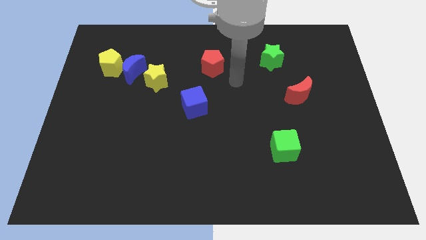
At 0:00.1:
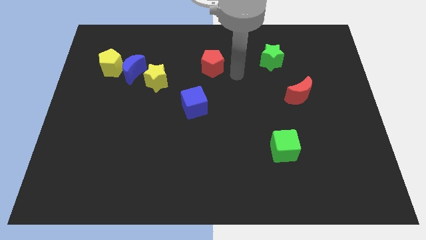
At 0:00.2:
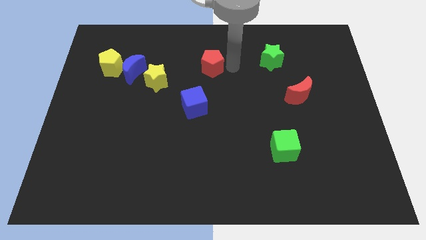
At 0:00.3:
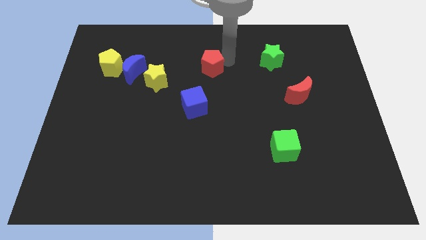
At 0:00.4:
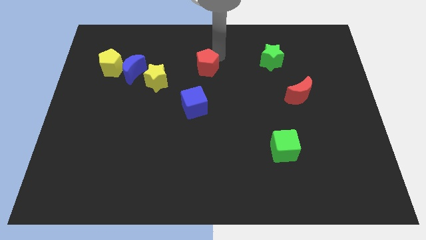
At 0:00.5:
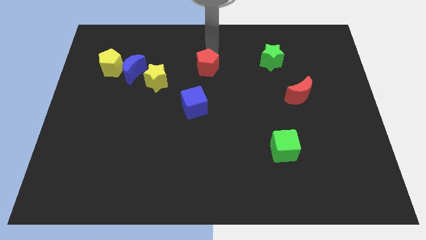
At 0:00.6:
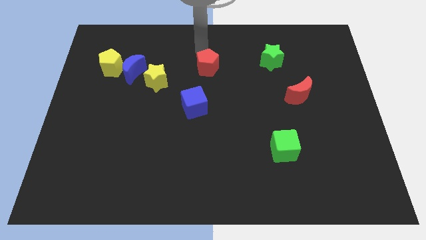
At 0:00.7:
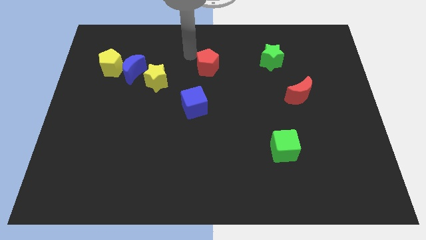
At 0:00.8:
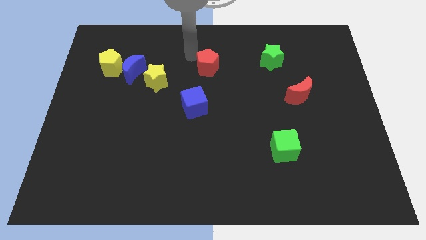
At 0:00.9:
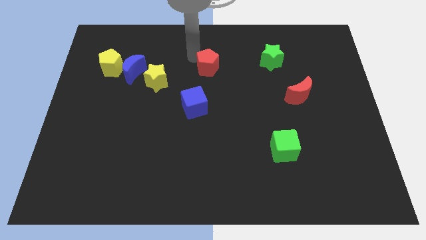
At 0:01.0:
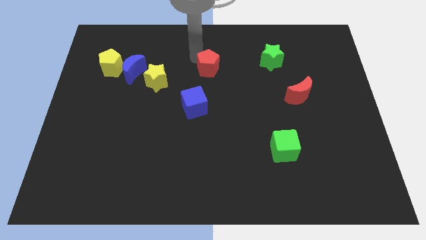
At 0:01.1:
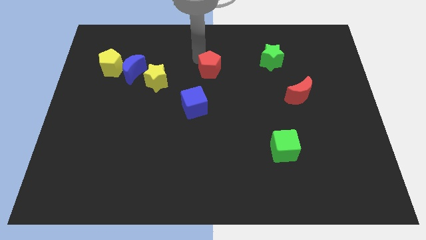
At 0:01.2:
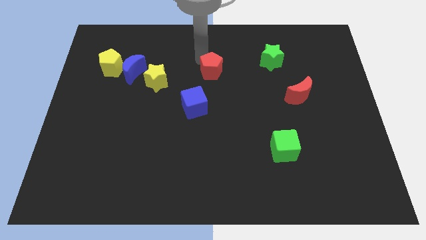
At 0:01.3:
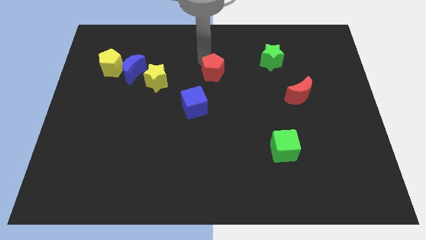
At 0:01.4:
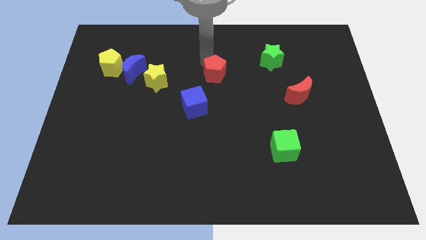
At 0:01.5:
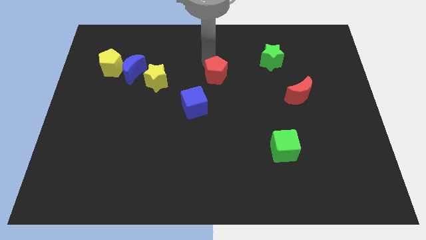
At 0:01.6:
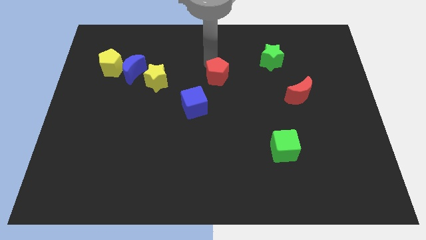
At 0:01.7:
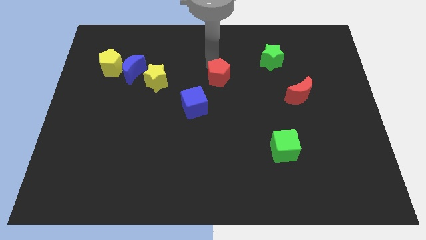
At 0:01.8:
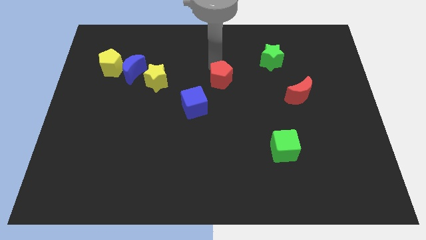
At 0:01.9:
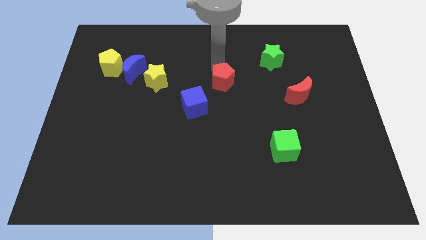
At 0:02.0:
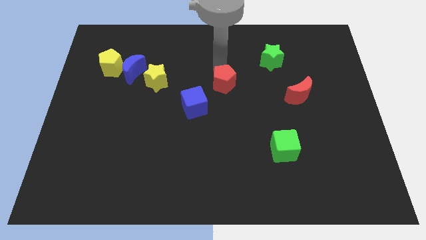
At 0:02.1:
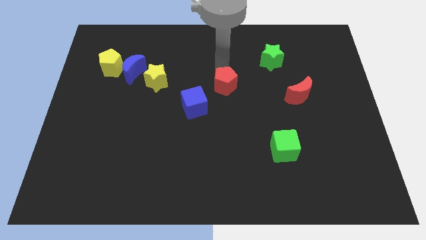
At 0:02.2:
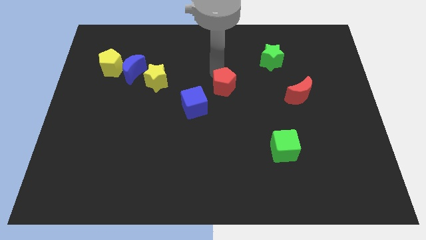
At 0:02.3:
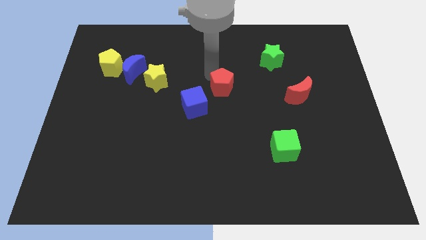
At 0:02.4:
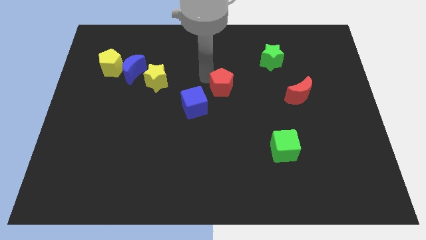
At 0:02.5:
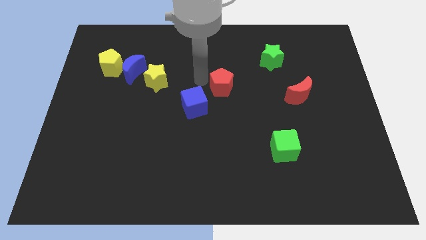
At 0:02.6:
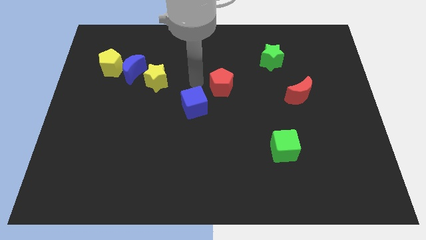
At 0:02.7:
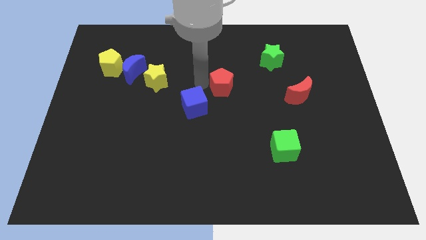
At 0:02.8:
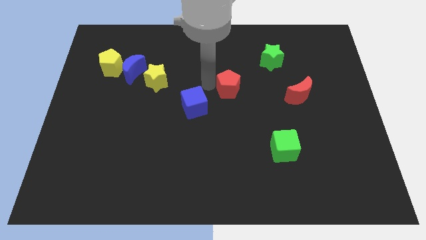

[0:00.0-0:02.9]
move the red pentagon diagonally down and to the right slightly

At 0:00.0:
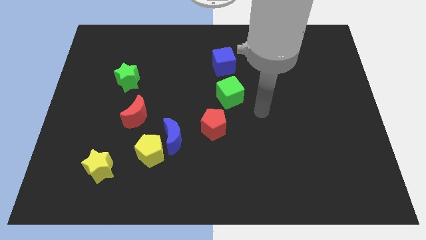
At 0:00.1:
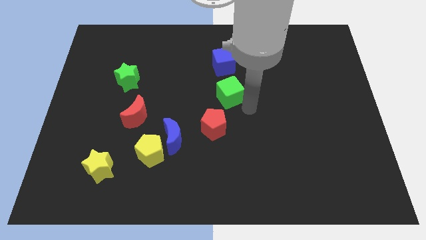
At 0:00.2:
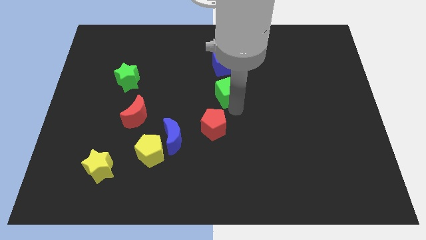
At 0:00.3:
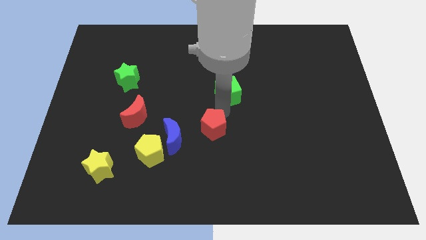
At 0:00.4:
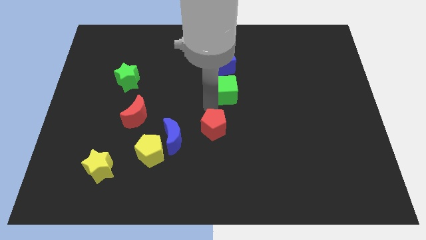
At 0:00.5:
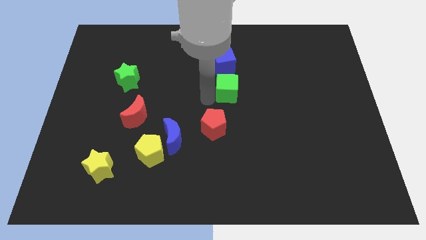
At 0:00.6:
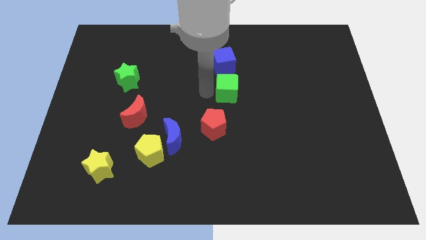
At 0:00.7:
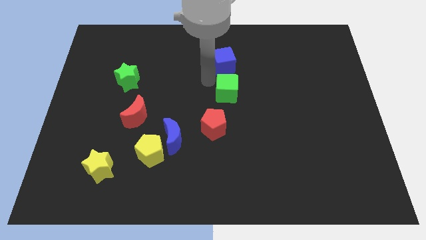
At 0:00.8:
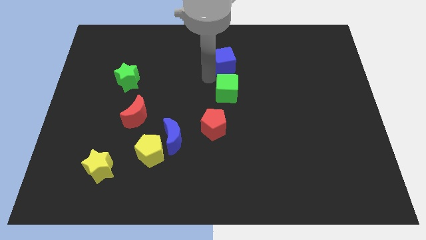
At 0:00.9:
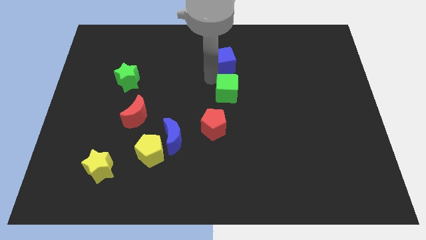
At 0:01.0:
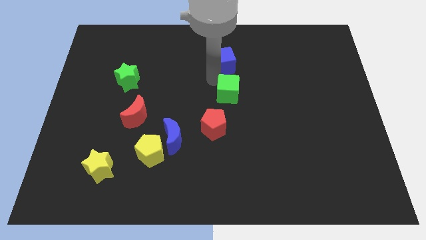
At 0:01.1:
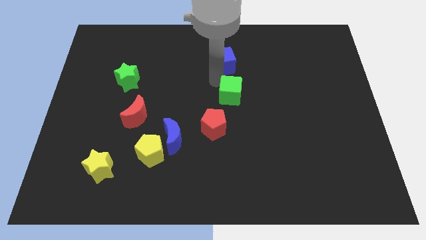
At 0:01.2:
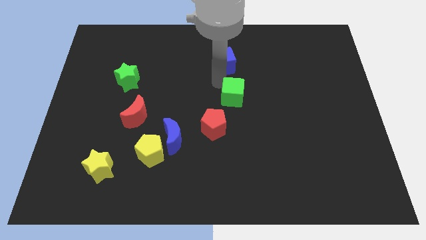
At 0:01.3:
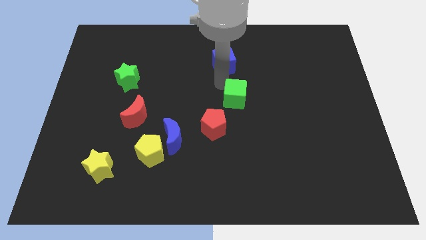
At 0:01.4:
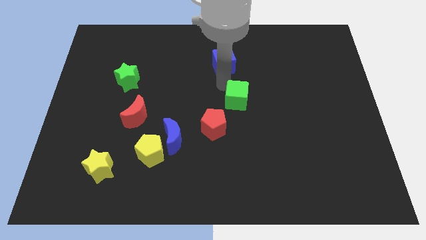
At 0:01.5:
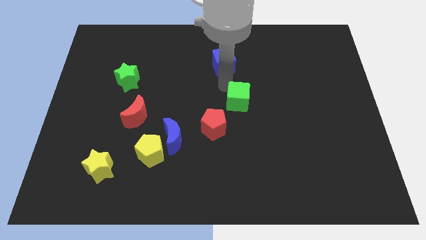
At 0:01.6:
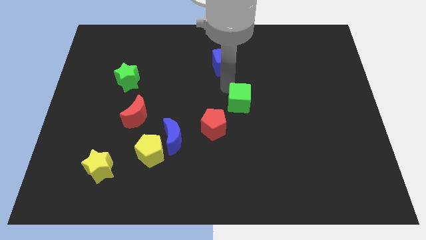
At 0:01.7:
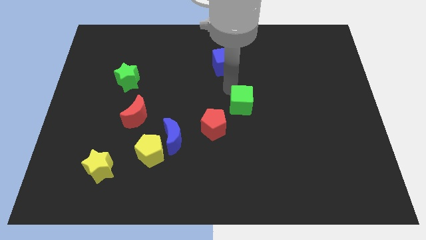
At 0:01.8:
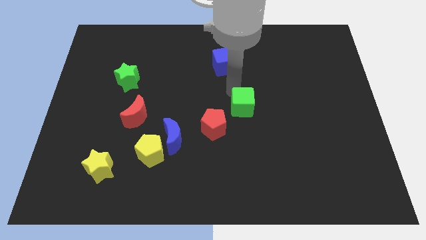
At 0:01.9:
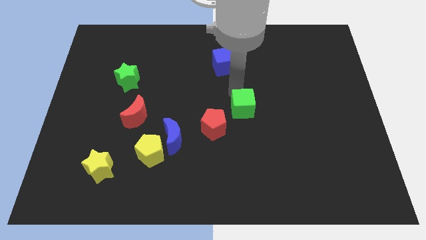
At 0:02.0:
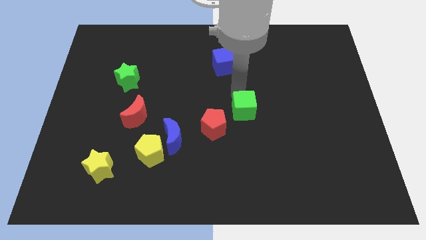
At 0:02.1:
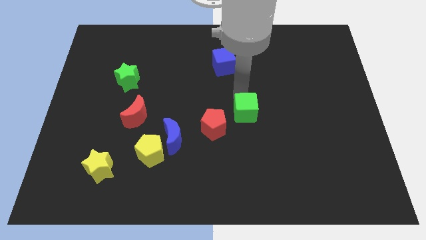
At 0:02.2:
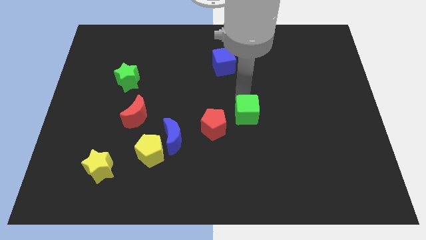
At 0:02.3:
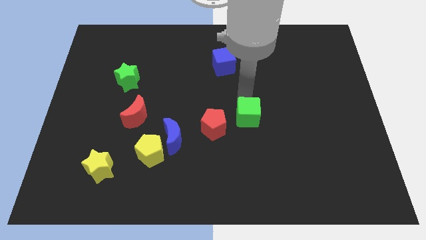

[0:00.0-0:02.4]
move the green cube a little down and to the right

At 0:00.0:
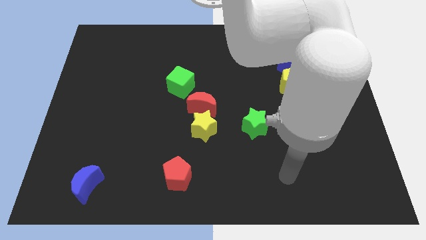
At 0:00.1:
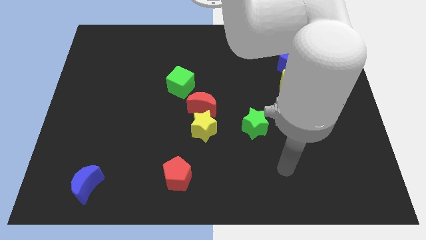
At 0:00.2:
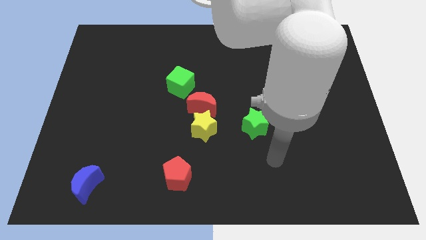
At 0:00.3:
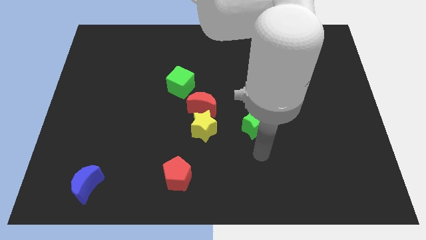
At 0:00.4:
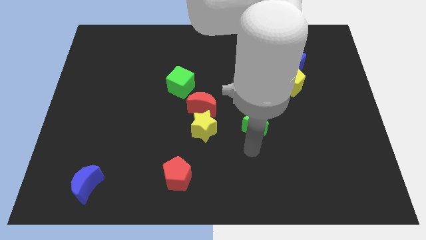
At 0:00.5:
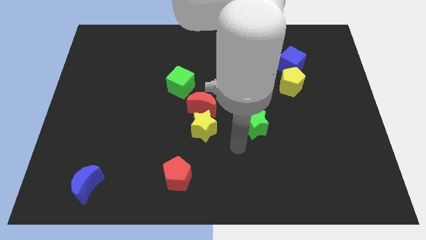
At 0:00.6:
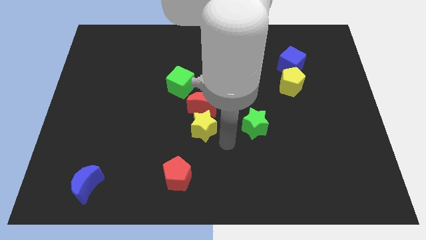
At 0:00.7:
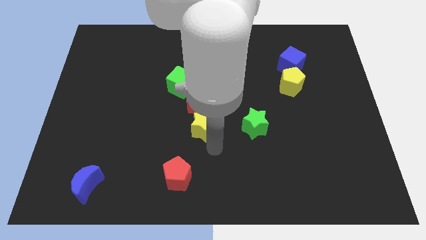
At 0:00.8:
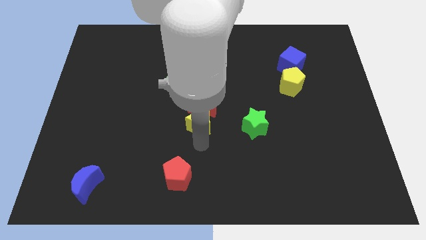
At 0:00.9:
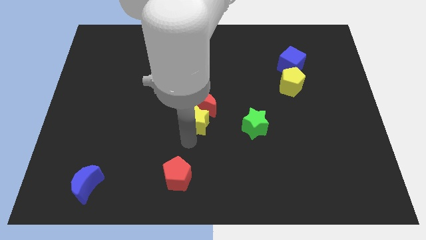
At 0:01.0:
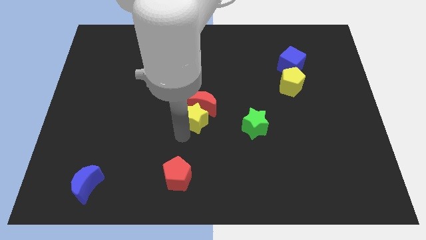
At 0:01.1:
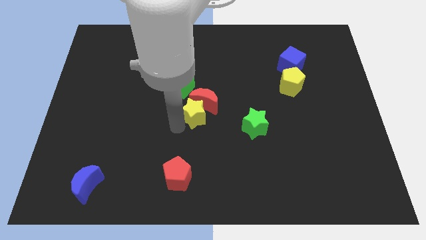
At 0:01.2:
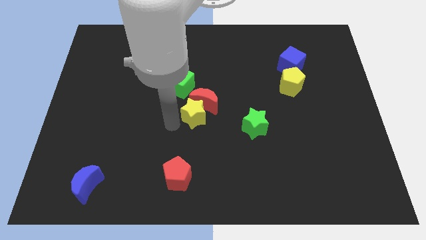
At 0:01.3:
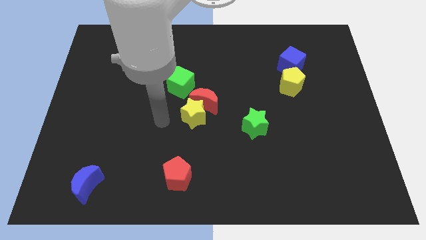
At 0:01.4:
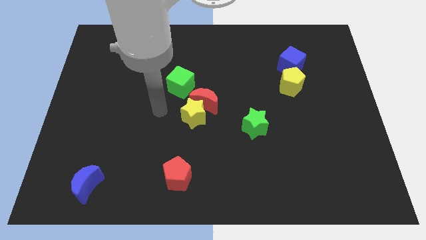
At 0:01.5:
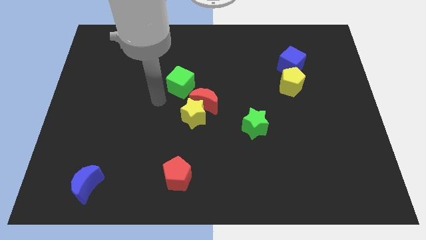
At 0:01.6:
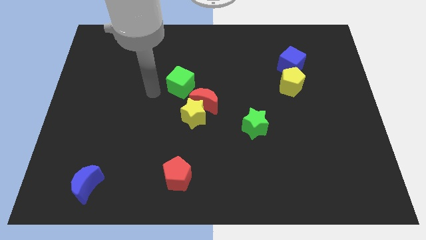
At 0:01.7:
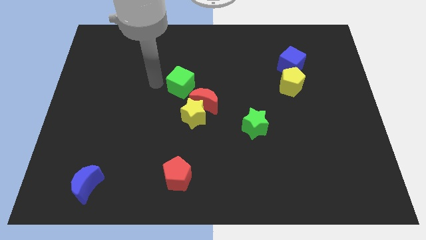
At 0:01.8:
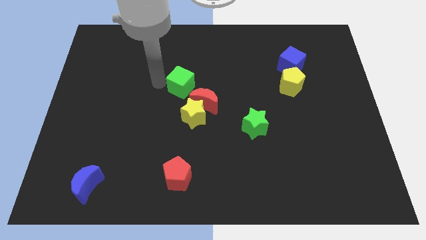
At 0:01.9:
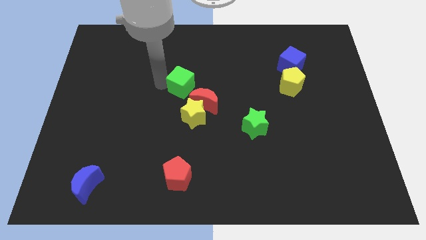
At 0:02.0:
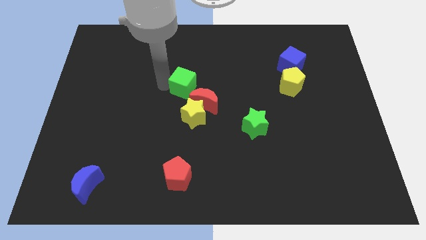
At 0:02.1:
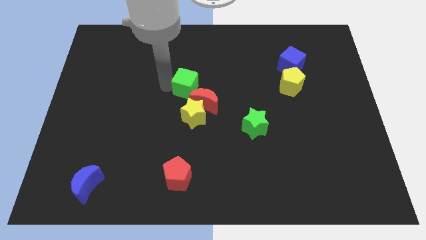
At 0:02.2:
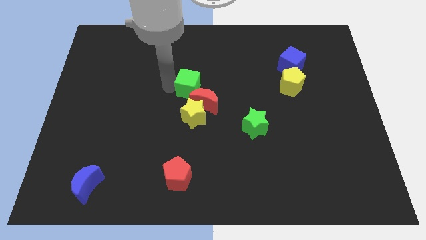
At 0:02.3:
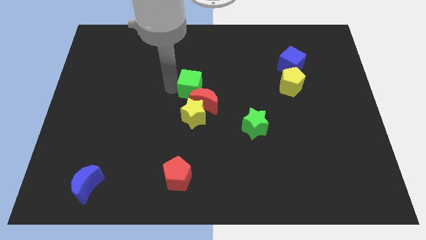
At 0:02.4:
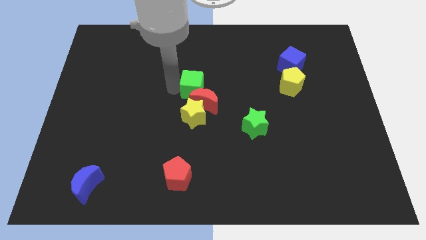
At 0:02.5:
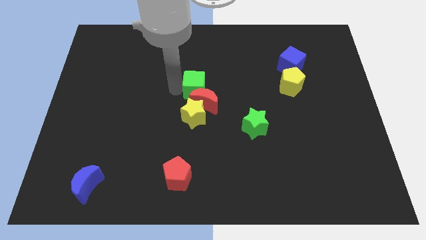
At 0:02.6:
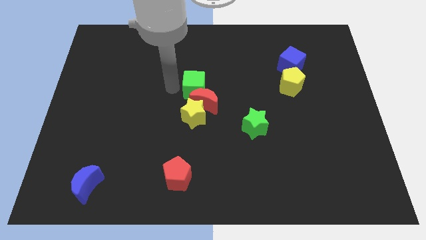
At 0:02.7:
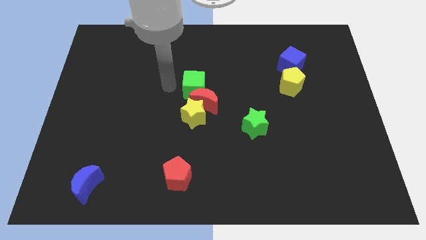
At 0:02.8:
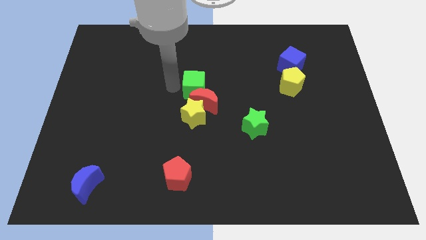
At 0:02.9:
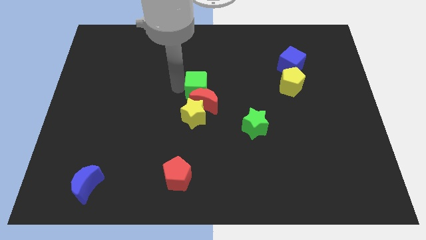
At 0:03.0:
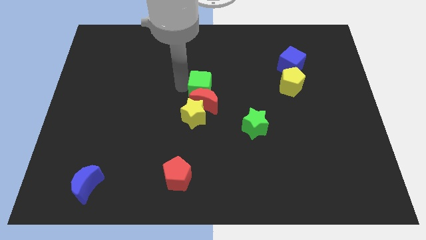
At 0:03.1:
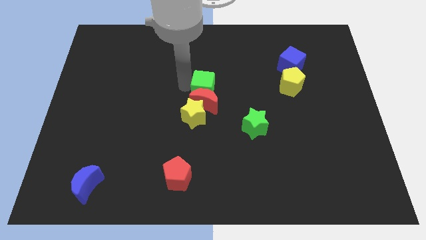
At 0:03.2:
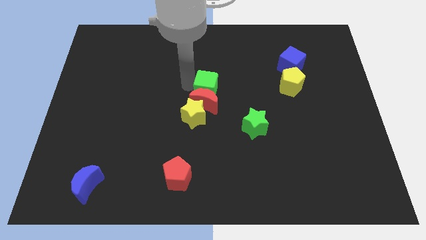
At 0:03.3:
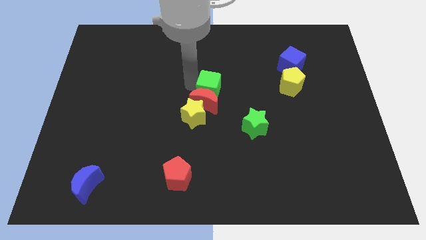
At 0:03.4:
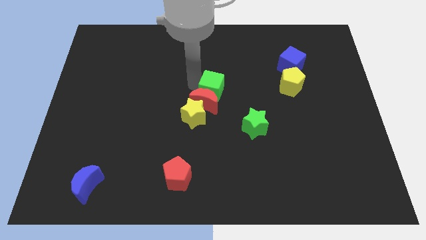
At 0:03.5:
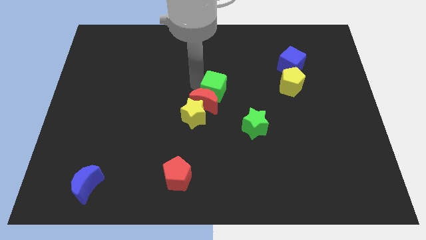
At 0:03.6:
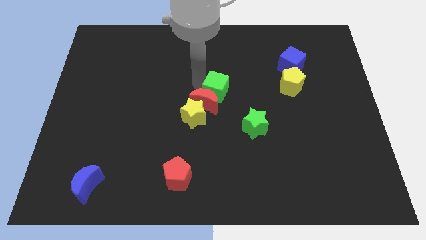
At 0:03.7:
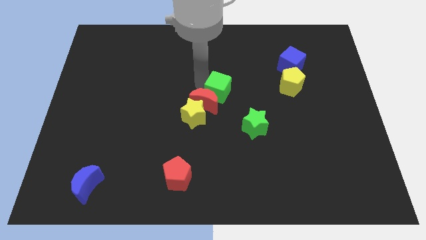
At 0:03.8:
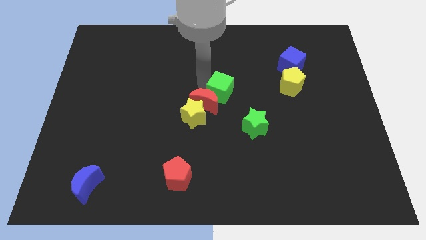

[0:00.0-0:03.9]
slide the green cube a little downwards and to the right diagonally
